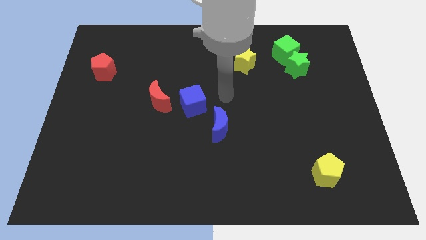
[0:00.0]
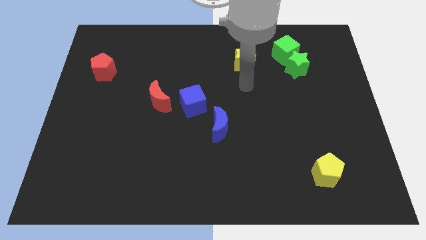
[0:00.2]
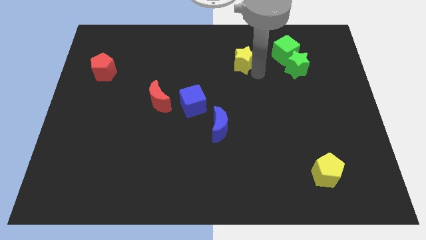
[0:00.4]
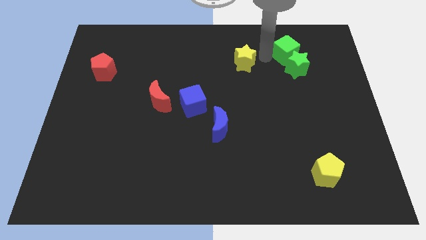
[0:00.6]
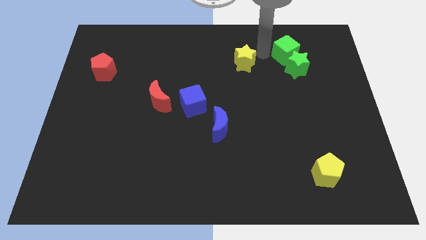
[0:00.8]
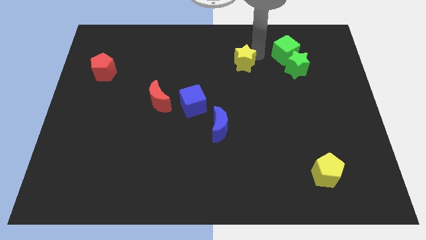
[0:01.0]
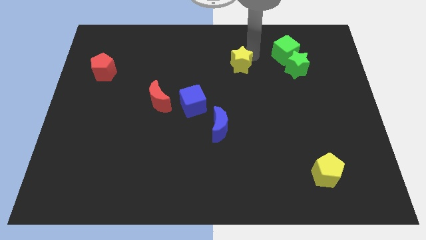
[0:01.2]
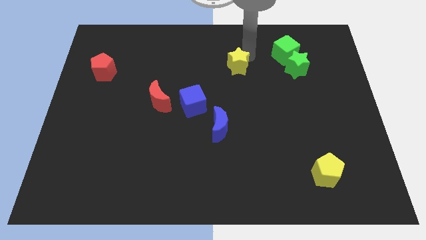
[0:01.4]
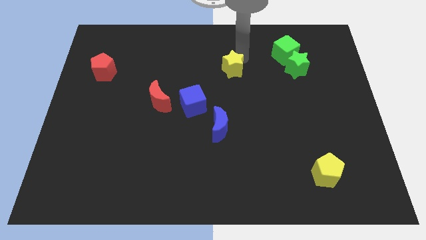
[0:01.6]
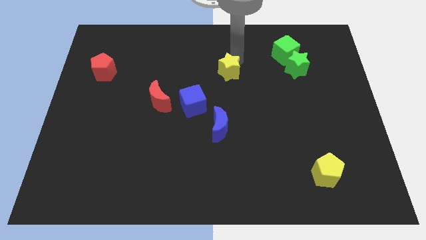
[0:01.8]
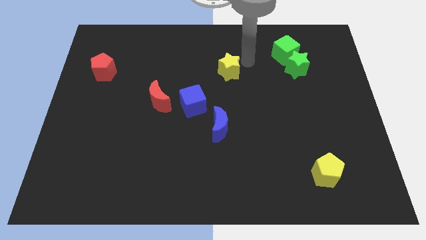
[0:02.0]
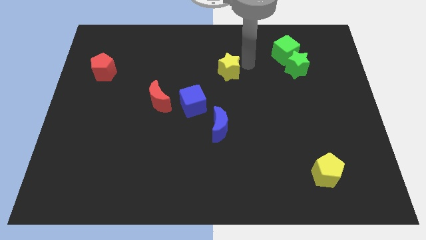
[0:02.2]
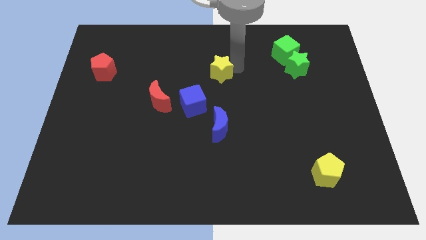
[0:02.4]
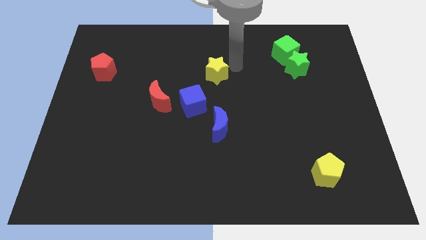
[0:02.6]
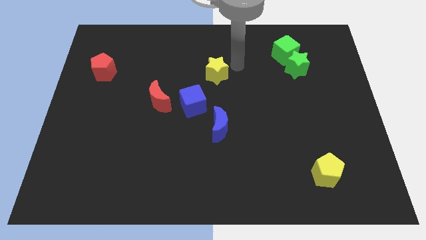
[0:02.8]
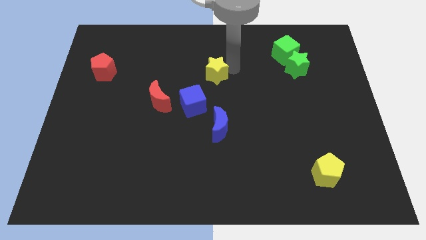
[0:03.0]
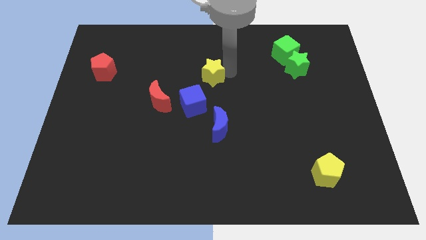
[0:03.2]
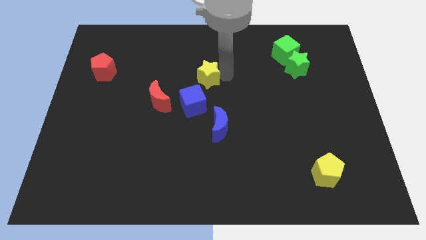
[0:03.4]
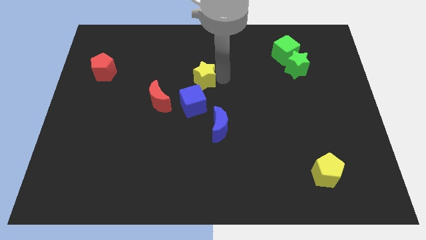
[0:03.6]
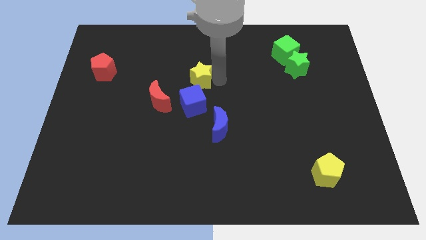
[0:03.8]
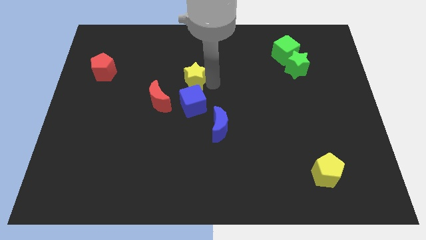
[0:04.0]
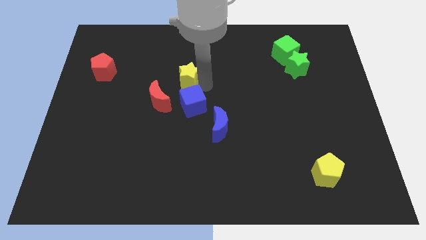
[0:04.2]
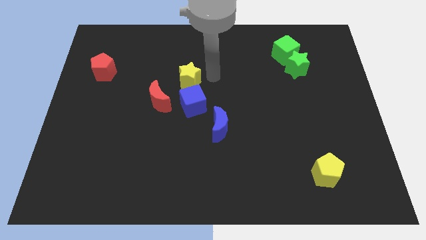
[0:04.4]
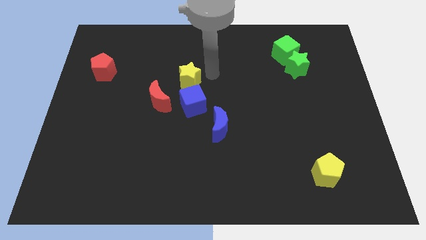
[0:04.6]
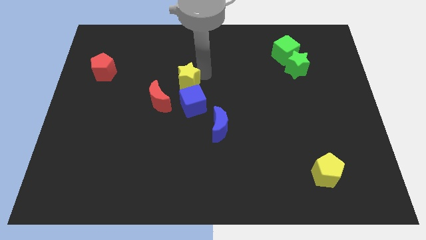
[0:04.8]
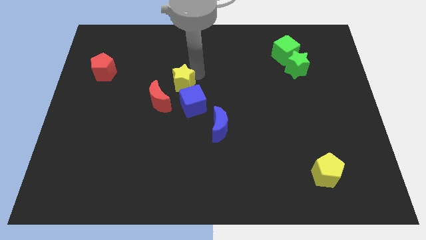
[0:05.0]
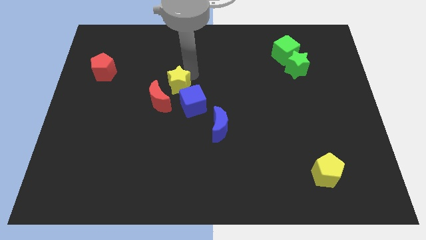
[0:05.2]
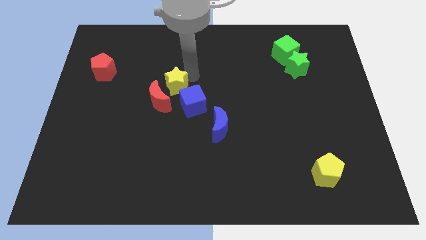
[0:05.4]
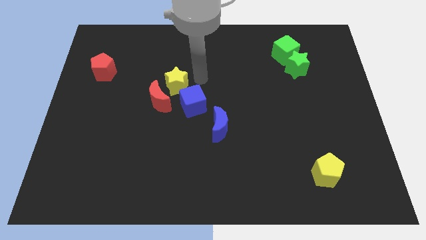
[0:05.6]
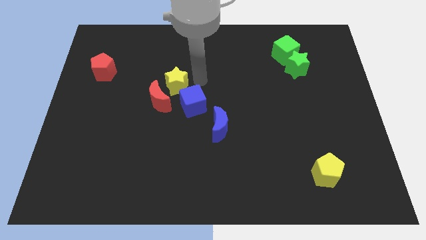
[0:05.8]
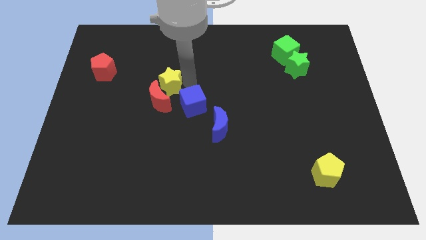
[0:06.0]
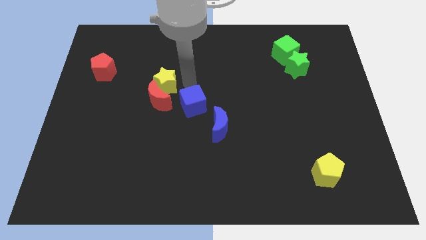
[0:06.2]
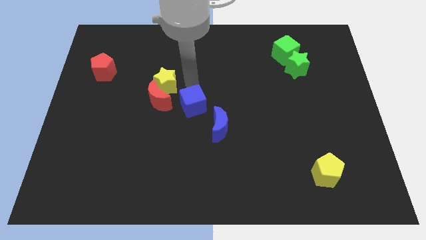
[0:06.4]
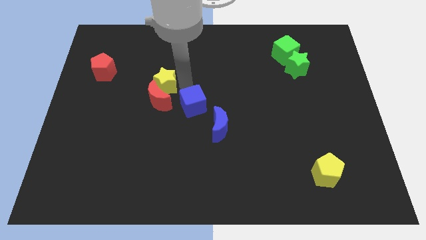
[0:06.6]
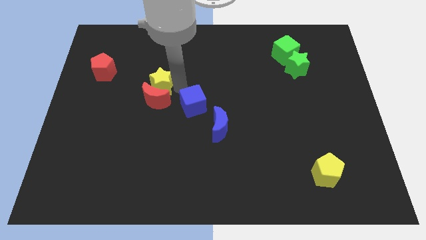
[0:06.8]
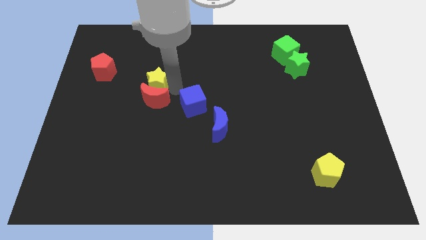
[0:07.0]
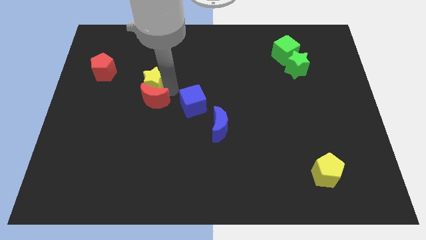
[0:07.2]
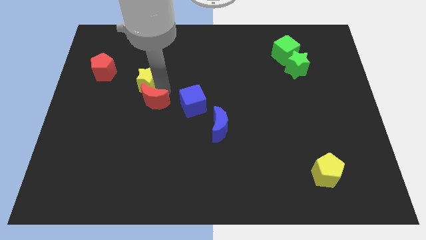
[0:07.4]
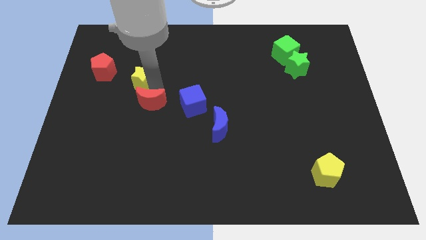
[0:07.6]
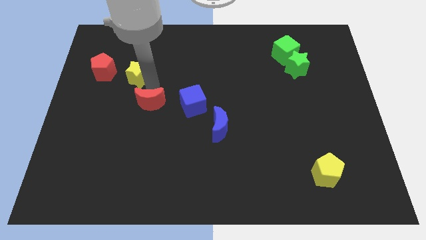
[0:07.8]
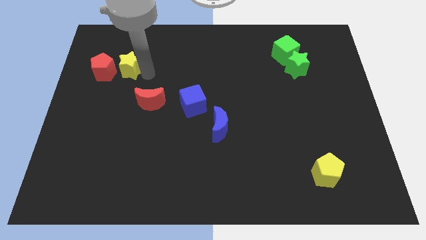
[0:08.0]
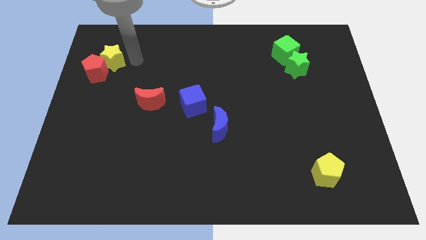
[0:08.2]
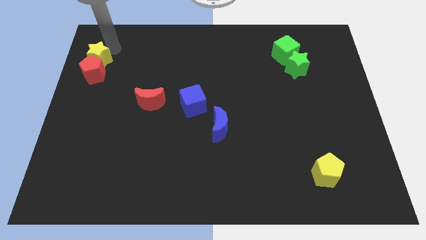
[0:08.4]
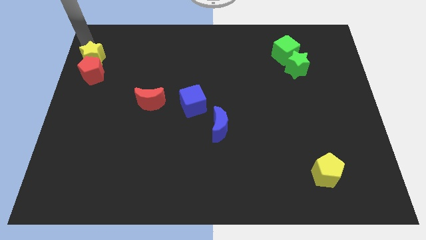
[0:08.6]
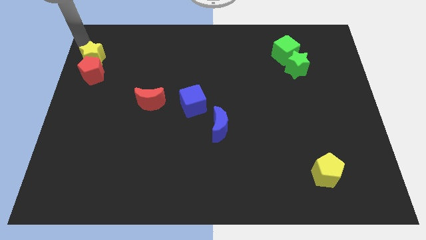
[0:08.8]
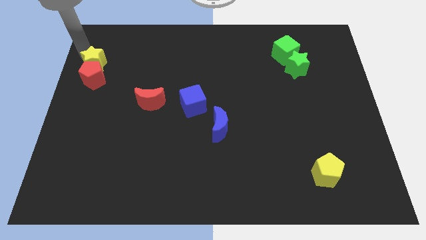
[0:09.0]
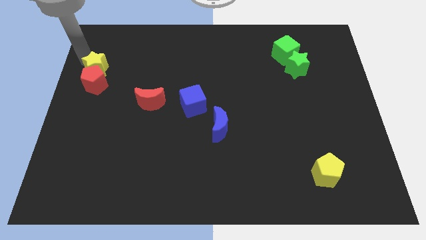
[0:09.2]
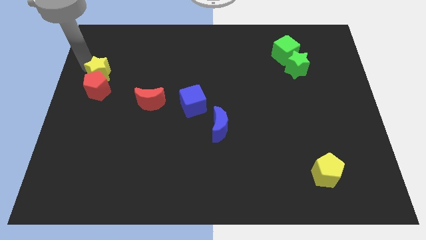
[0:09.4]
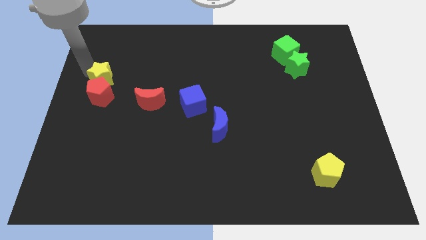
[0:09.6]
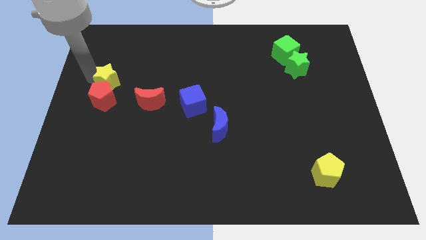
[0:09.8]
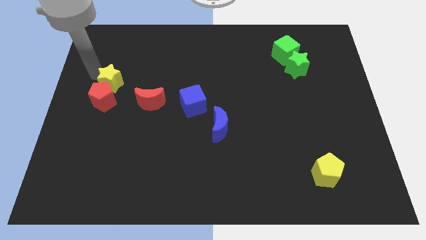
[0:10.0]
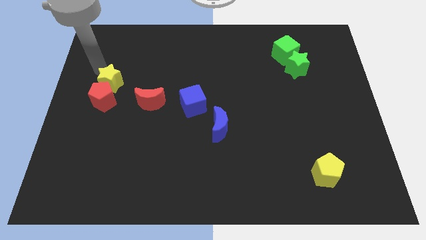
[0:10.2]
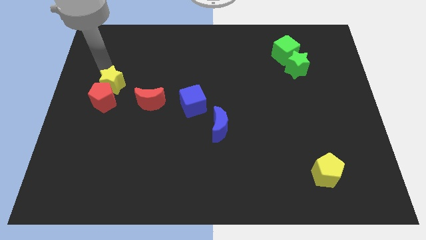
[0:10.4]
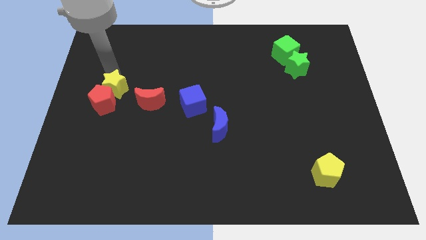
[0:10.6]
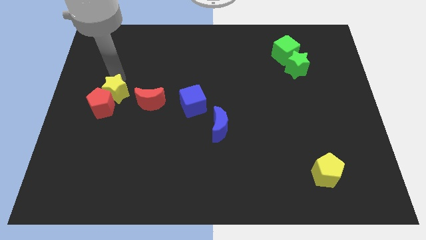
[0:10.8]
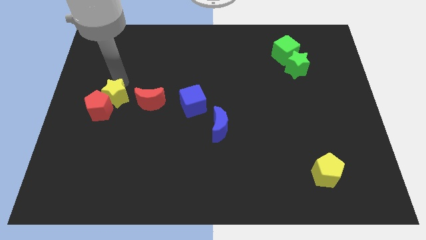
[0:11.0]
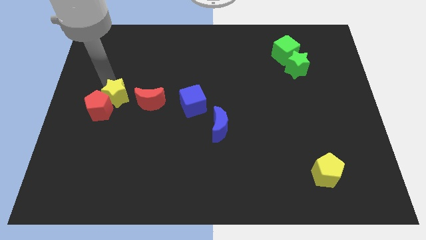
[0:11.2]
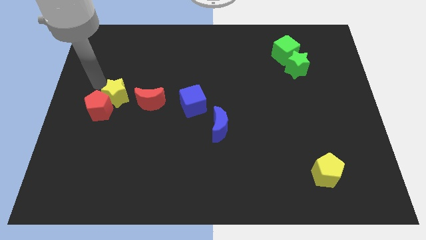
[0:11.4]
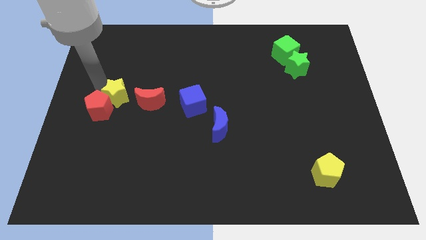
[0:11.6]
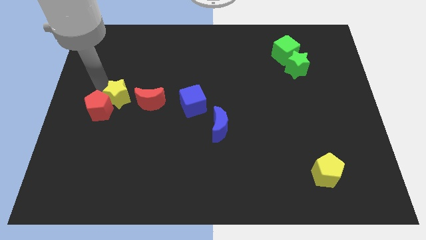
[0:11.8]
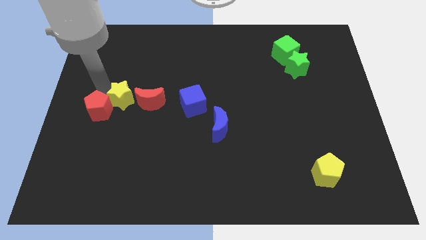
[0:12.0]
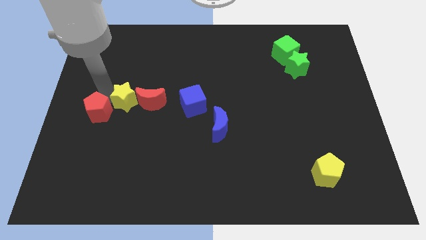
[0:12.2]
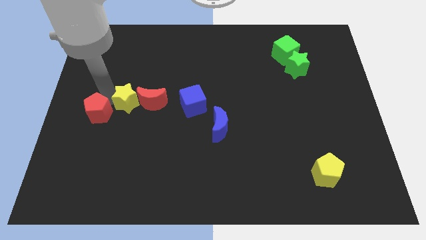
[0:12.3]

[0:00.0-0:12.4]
slide the yellow star to the bottom left of the red moon
